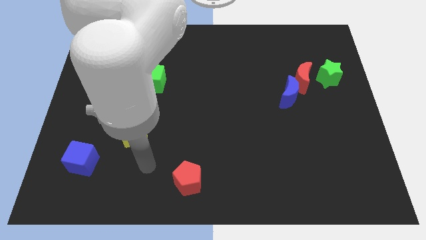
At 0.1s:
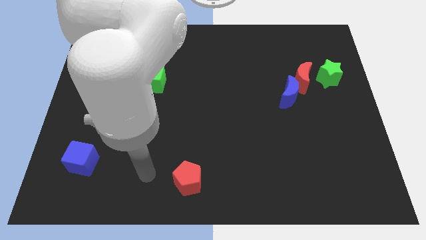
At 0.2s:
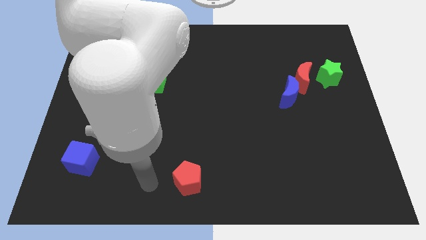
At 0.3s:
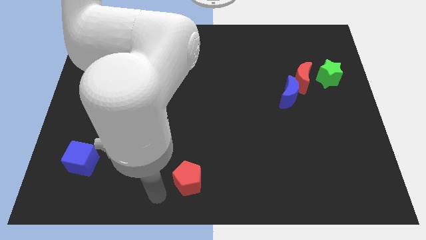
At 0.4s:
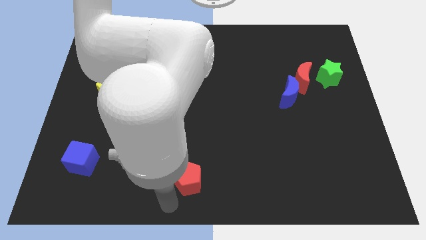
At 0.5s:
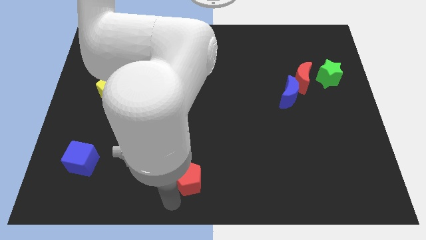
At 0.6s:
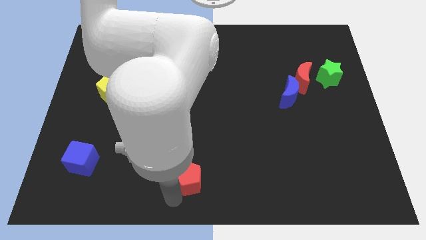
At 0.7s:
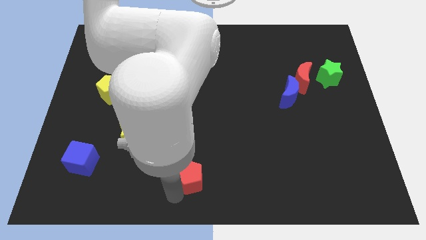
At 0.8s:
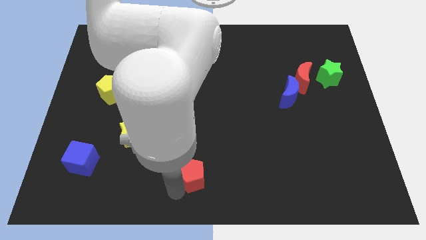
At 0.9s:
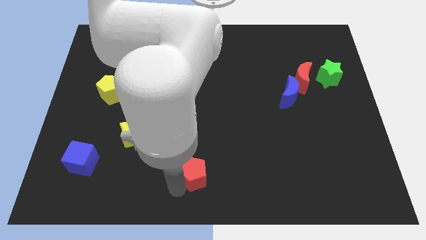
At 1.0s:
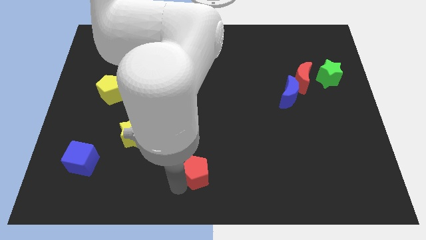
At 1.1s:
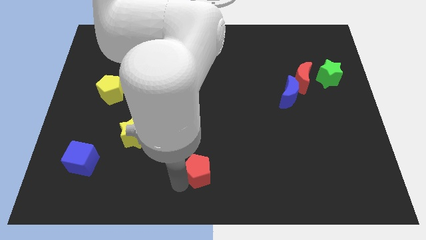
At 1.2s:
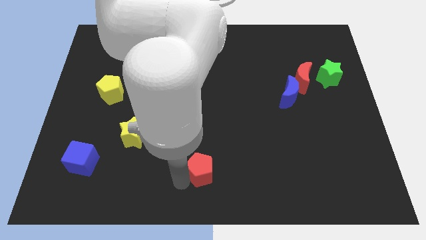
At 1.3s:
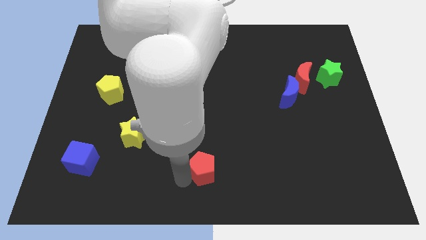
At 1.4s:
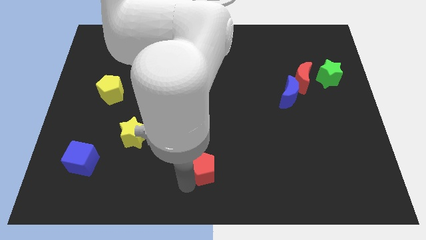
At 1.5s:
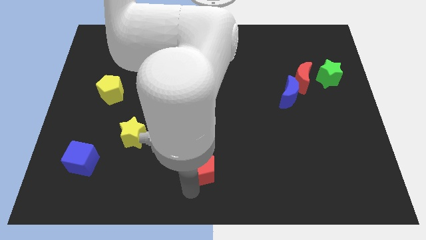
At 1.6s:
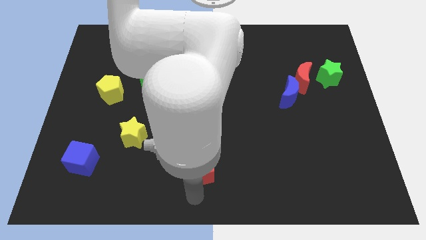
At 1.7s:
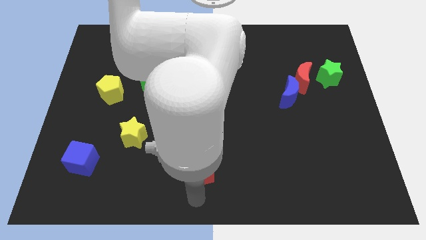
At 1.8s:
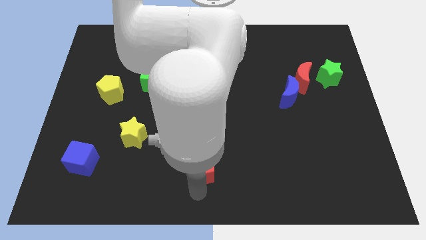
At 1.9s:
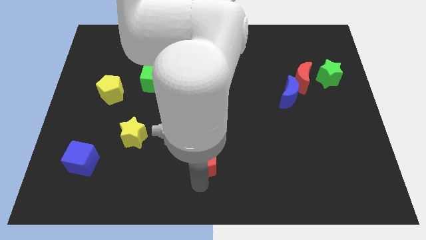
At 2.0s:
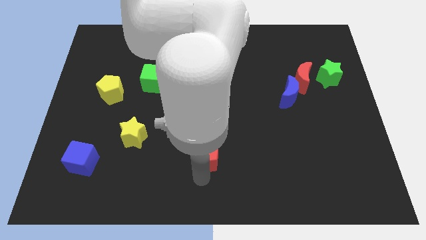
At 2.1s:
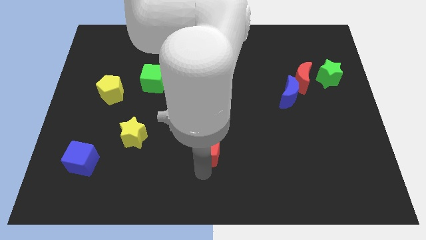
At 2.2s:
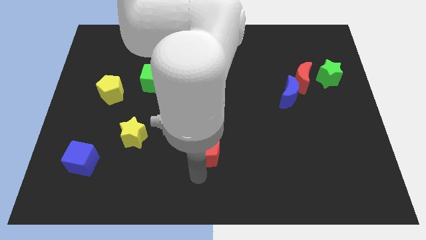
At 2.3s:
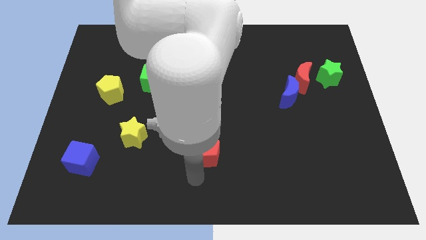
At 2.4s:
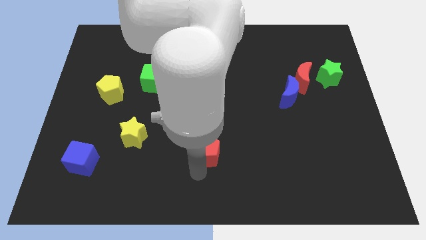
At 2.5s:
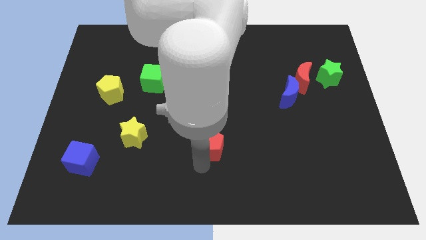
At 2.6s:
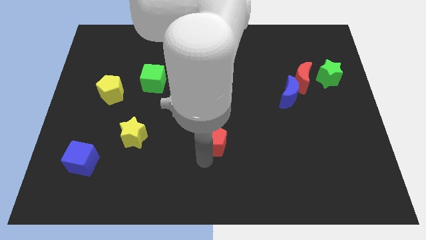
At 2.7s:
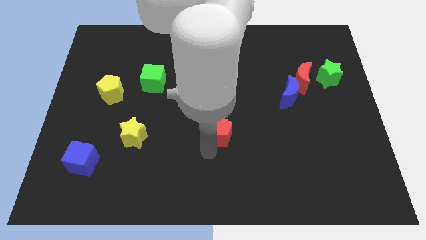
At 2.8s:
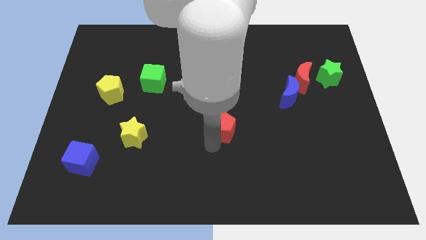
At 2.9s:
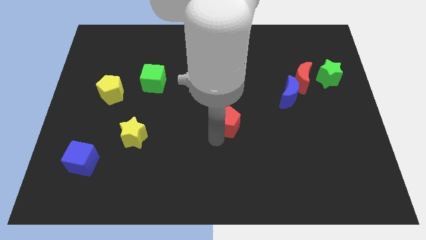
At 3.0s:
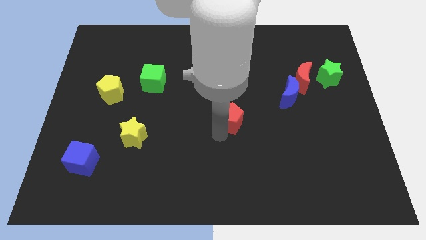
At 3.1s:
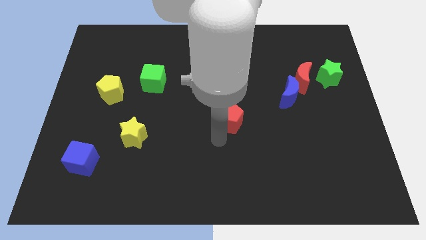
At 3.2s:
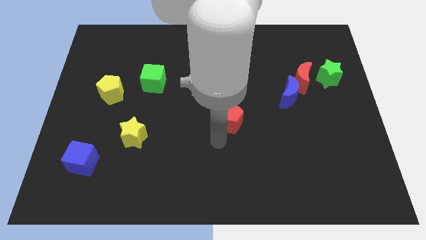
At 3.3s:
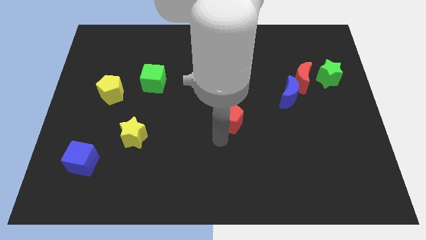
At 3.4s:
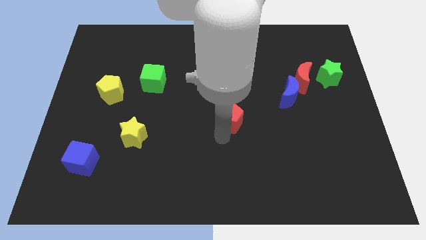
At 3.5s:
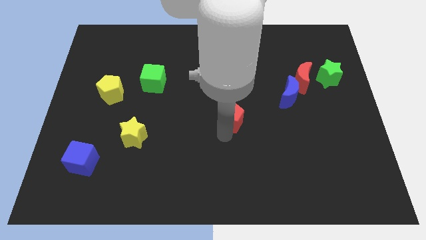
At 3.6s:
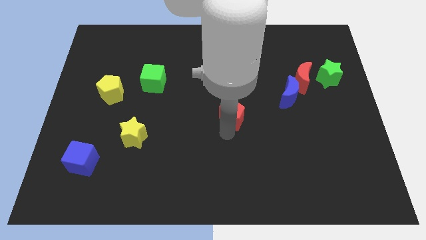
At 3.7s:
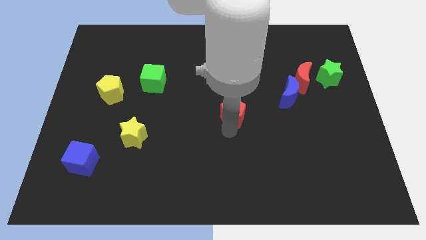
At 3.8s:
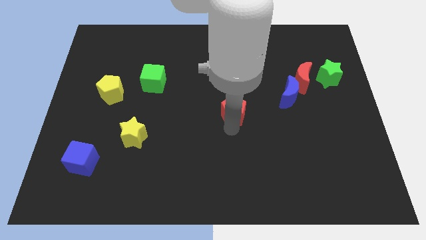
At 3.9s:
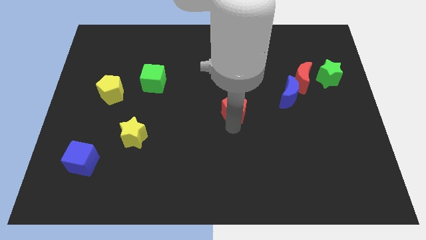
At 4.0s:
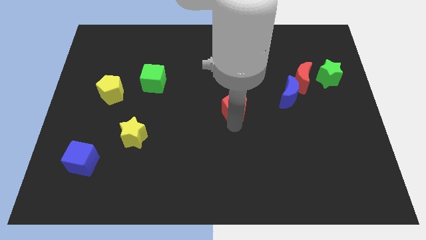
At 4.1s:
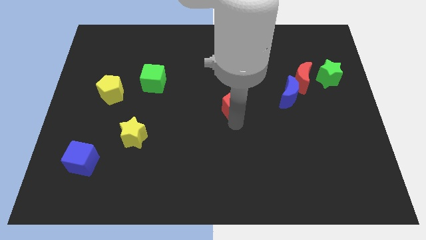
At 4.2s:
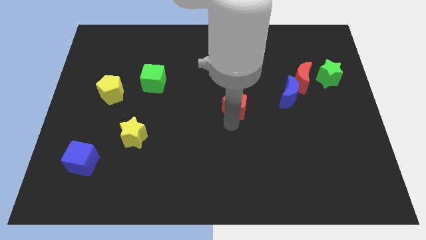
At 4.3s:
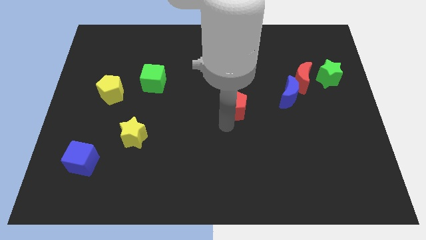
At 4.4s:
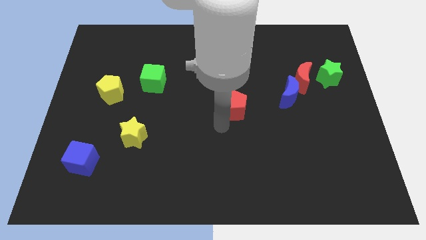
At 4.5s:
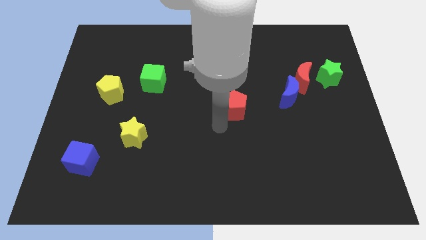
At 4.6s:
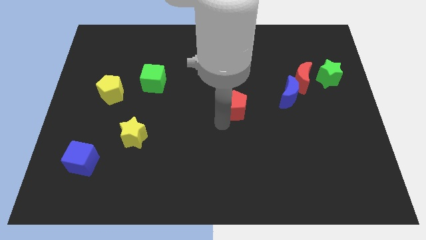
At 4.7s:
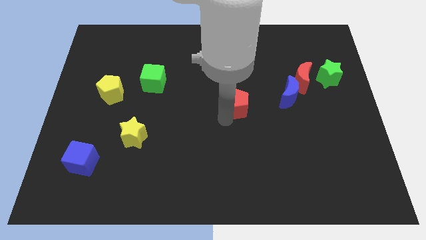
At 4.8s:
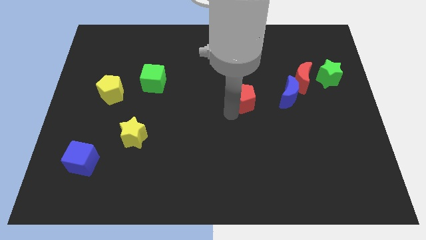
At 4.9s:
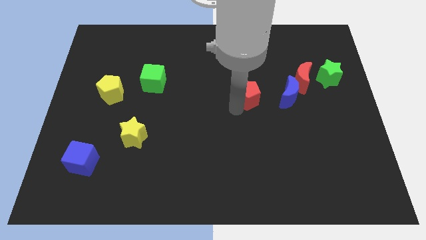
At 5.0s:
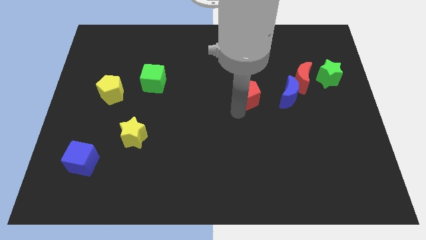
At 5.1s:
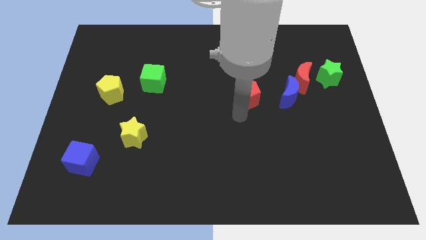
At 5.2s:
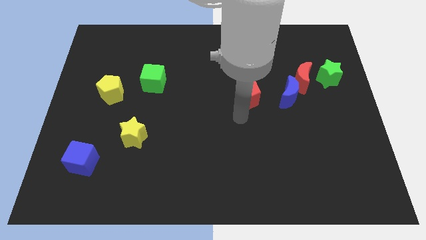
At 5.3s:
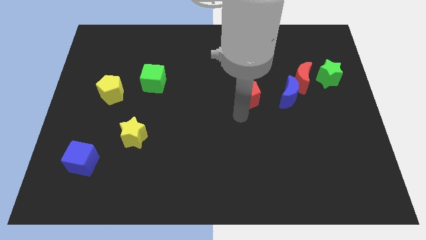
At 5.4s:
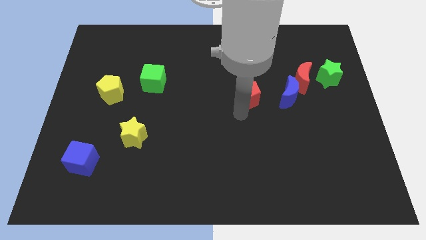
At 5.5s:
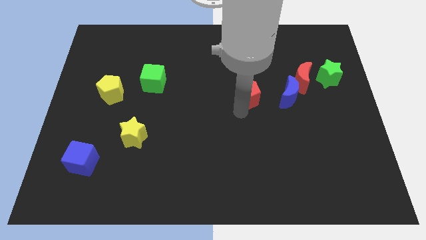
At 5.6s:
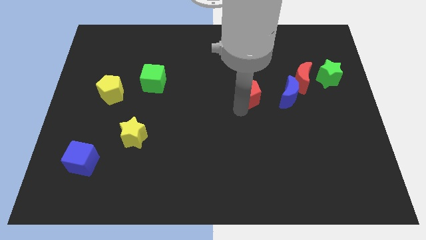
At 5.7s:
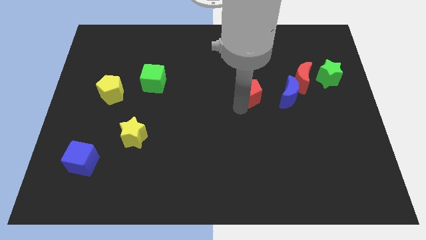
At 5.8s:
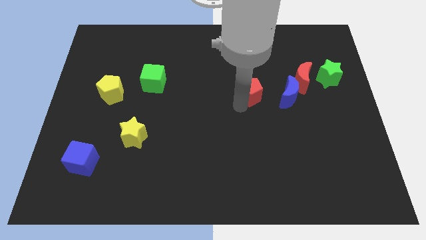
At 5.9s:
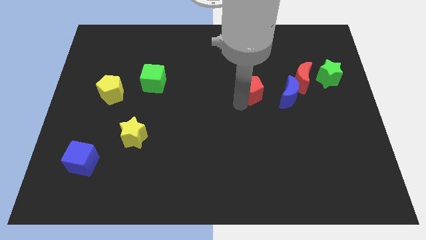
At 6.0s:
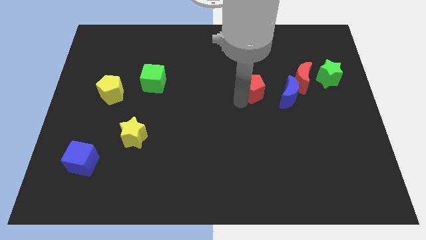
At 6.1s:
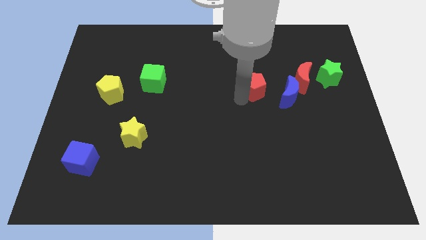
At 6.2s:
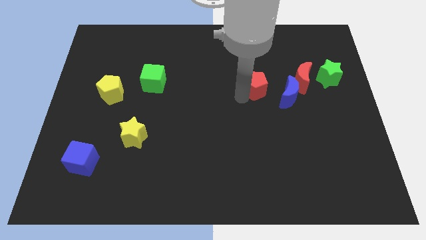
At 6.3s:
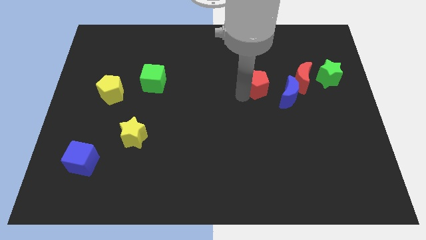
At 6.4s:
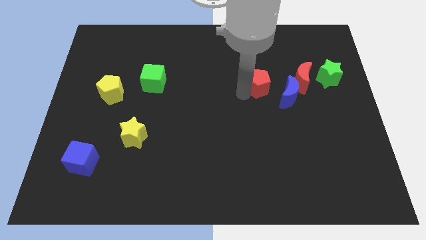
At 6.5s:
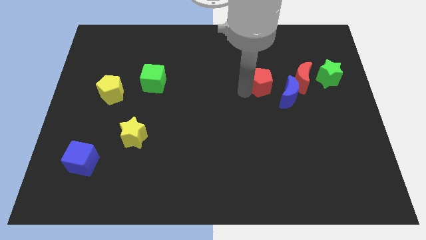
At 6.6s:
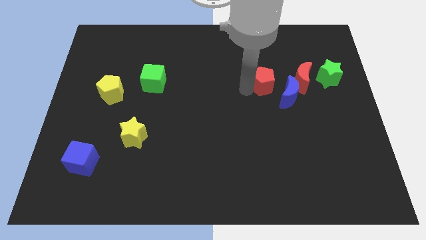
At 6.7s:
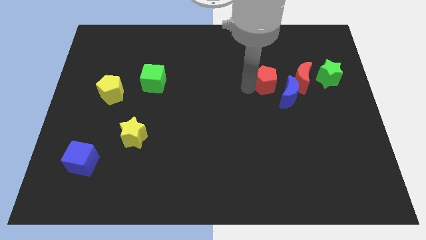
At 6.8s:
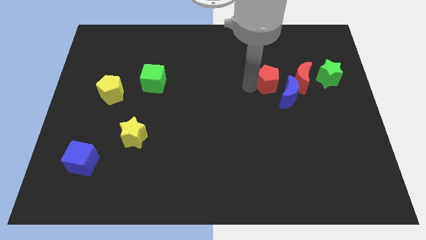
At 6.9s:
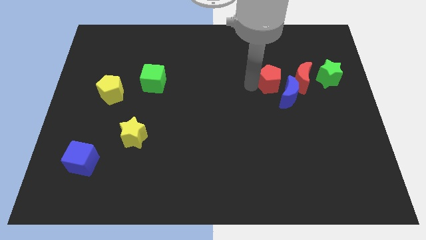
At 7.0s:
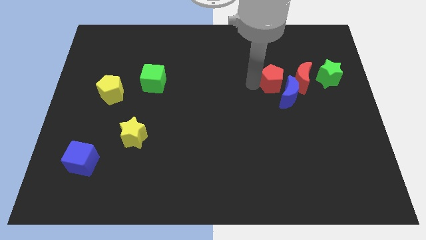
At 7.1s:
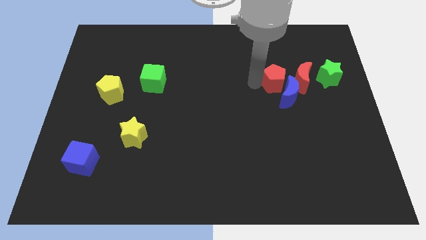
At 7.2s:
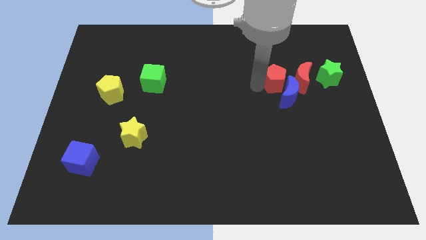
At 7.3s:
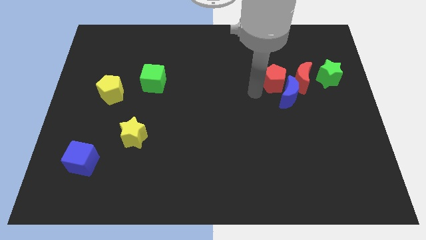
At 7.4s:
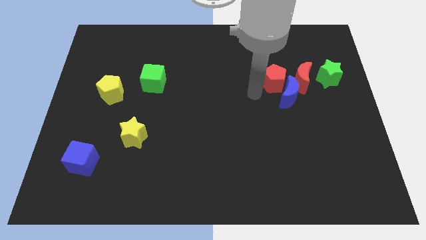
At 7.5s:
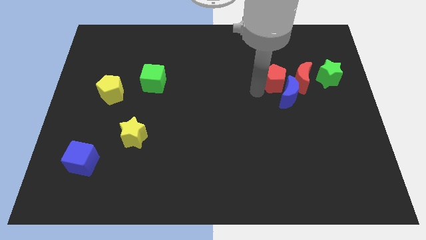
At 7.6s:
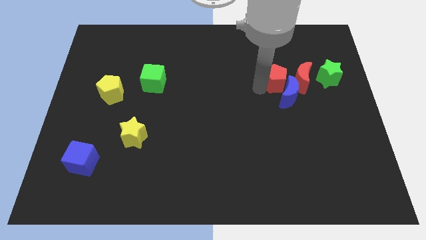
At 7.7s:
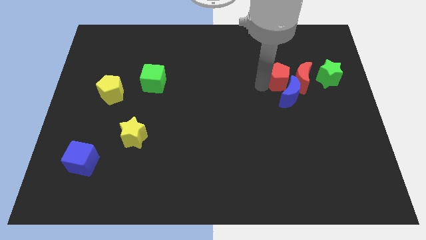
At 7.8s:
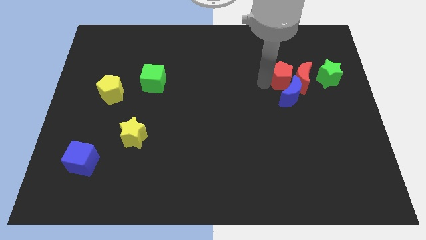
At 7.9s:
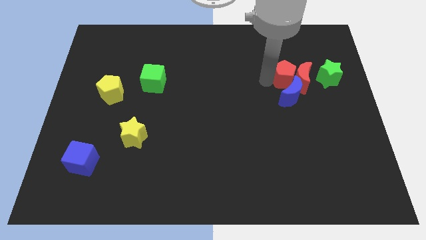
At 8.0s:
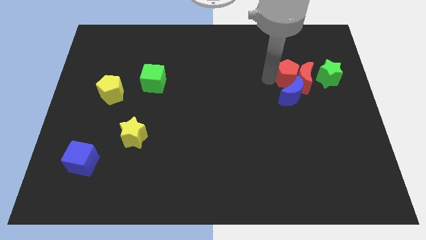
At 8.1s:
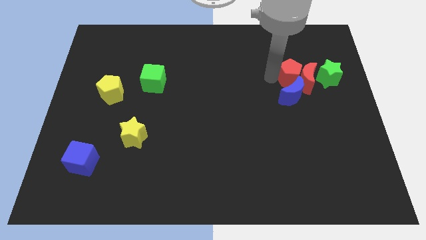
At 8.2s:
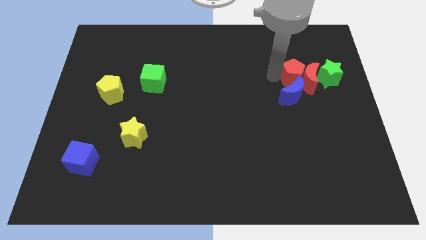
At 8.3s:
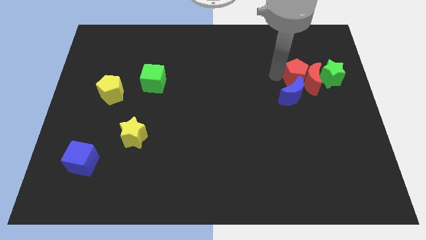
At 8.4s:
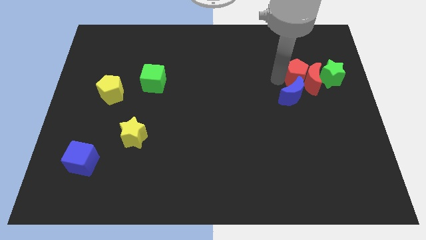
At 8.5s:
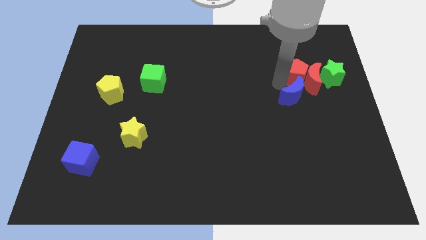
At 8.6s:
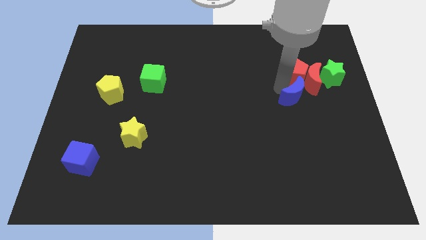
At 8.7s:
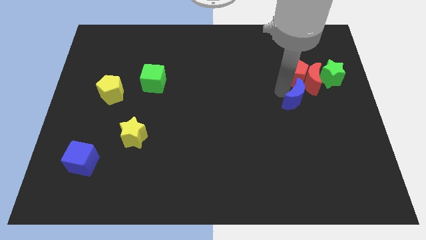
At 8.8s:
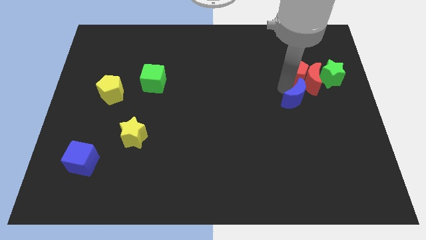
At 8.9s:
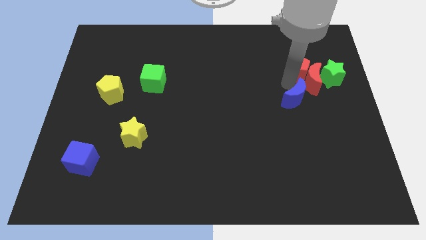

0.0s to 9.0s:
move the red pentagon to the top left of the green star
